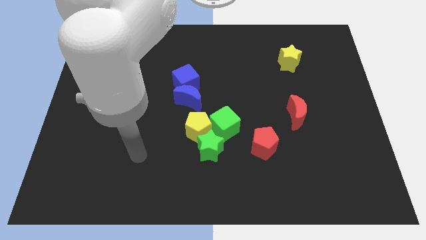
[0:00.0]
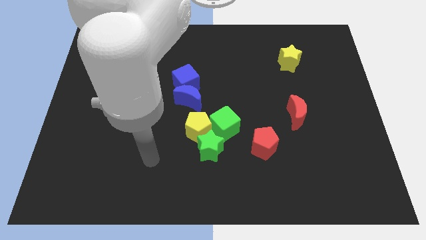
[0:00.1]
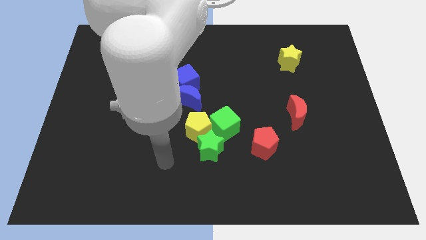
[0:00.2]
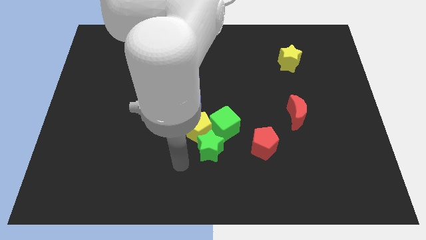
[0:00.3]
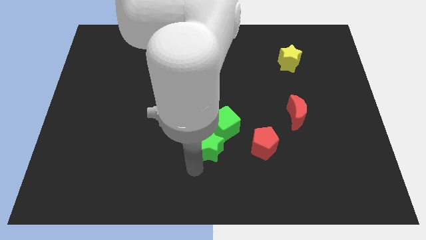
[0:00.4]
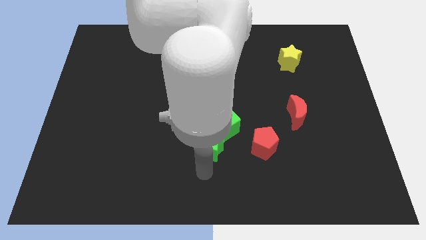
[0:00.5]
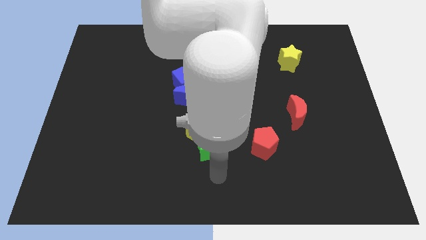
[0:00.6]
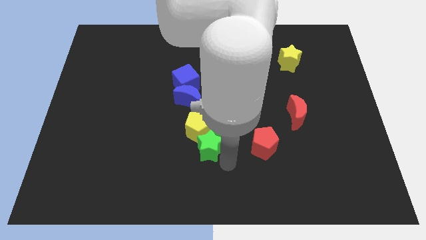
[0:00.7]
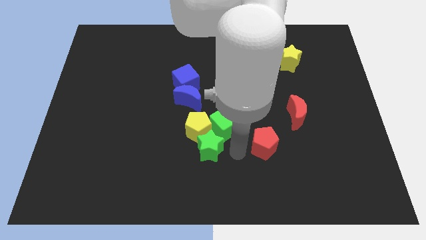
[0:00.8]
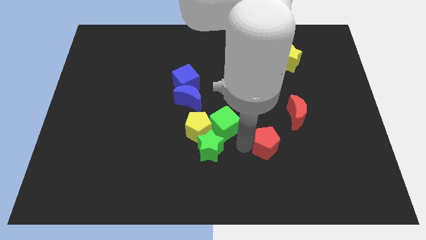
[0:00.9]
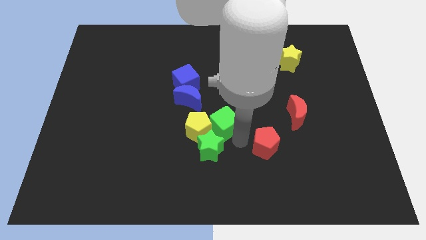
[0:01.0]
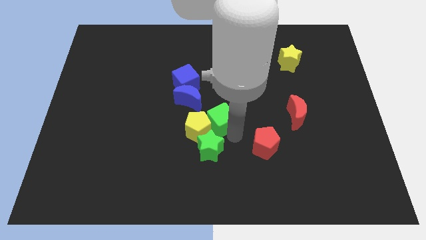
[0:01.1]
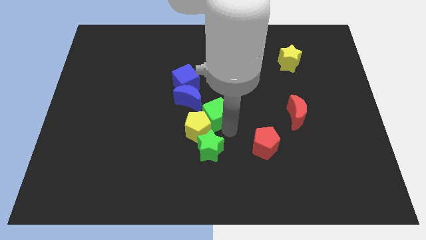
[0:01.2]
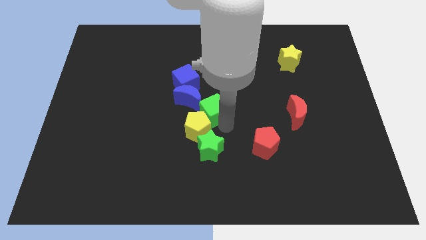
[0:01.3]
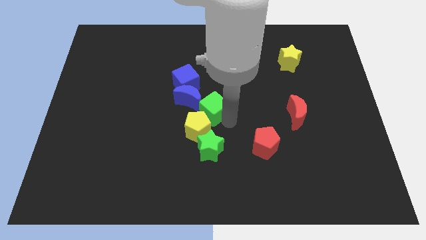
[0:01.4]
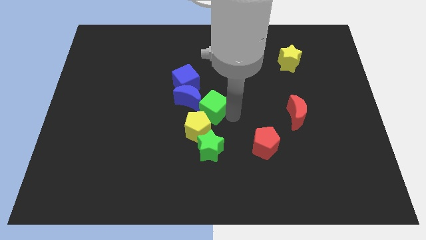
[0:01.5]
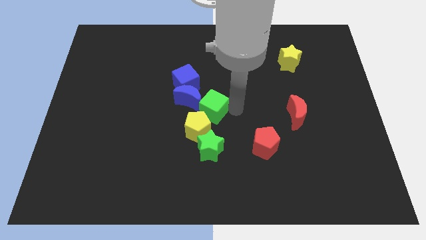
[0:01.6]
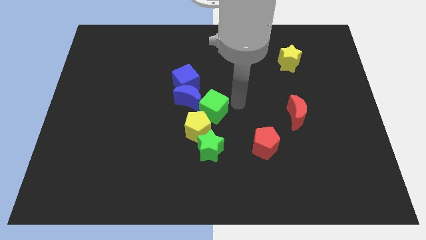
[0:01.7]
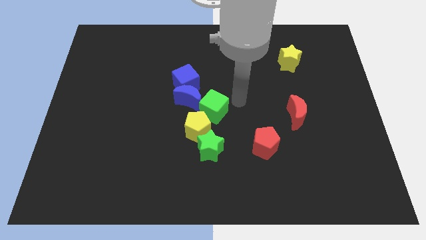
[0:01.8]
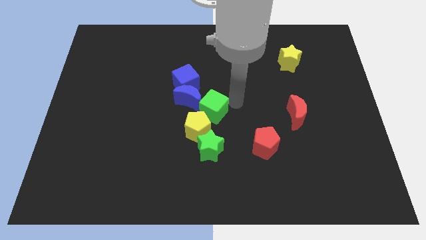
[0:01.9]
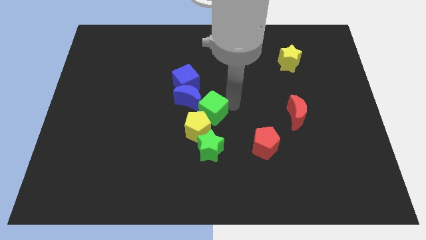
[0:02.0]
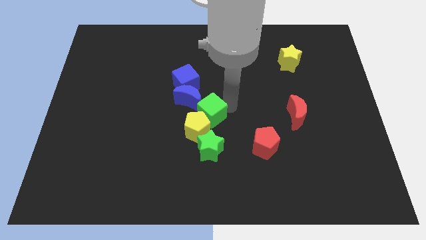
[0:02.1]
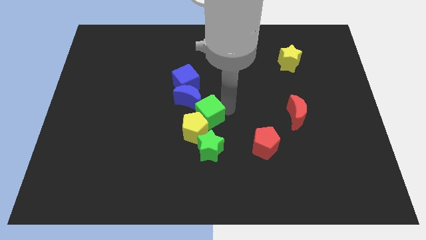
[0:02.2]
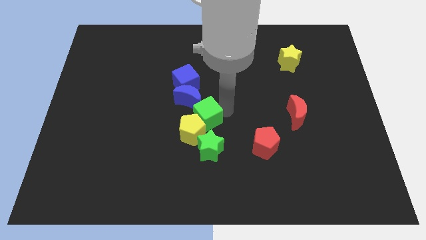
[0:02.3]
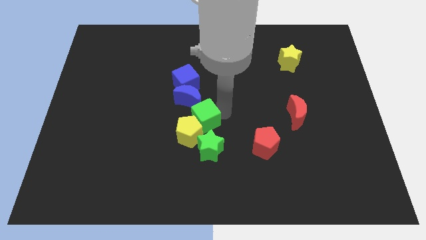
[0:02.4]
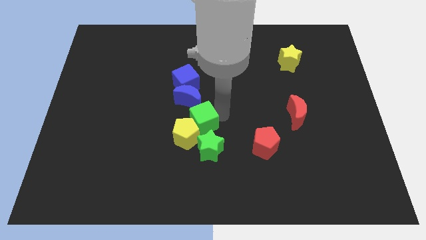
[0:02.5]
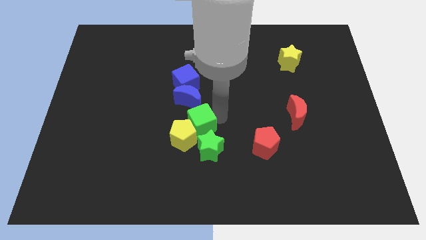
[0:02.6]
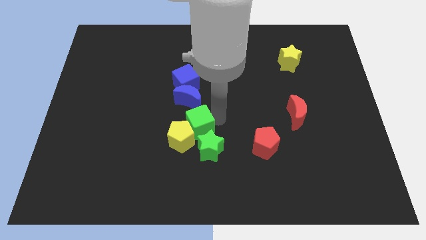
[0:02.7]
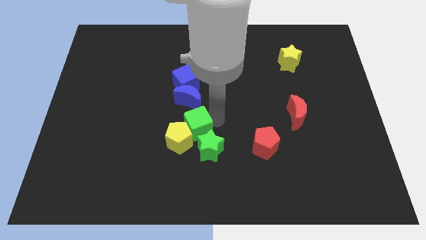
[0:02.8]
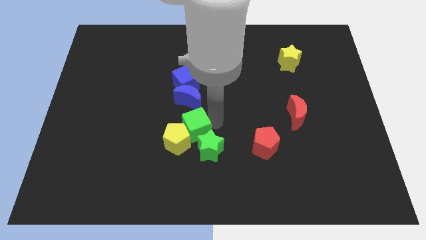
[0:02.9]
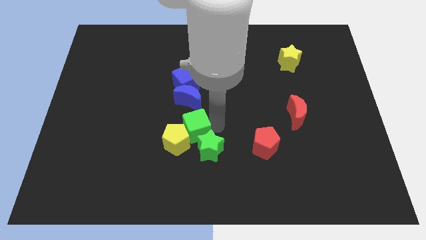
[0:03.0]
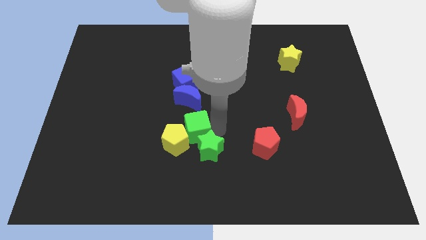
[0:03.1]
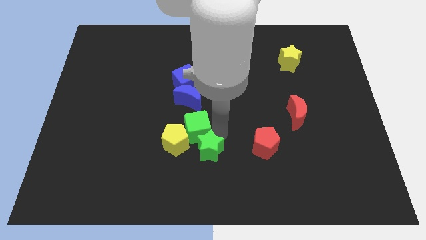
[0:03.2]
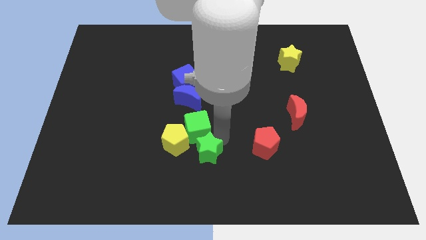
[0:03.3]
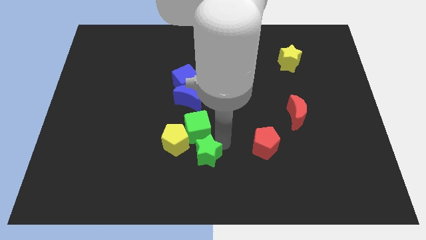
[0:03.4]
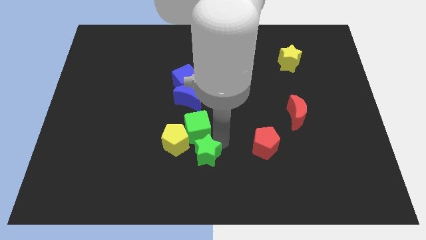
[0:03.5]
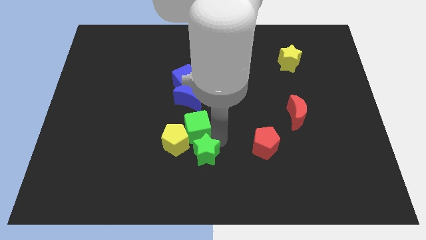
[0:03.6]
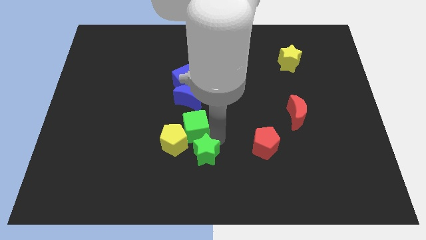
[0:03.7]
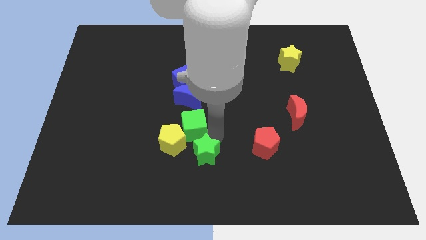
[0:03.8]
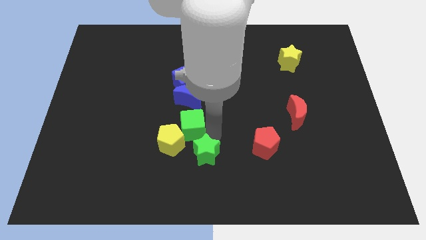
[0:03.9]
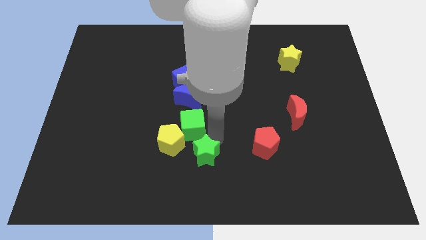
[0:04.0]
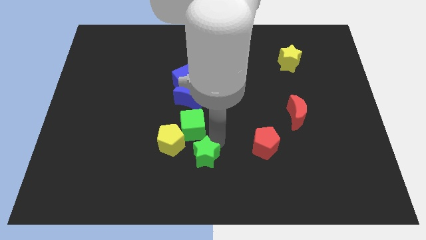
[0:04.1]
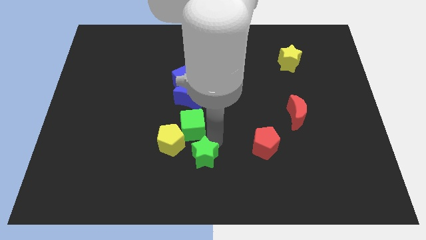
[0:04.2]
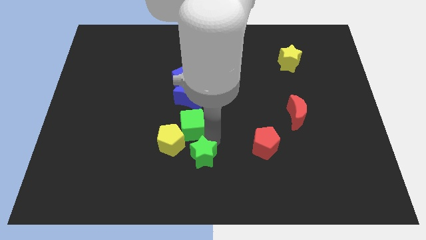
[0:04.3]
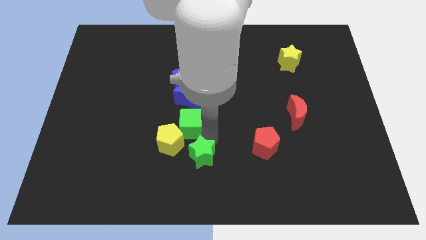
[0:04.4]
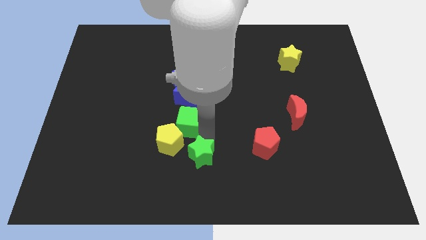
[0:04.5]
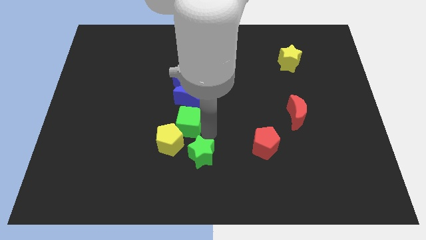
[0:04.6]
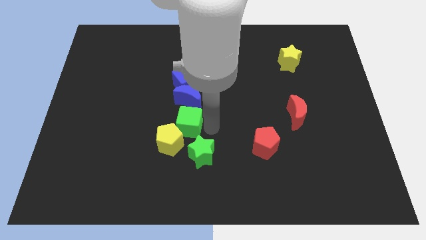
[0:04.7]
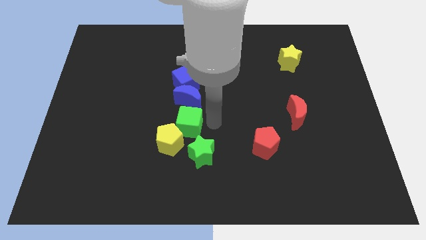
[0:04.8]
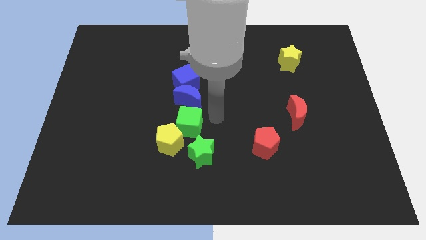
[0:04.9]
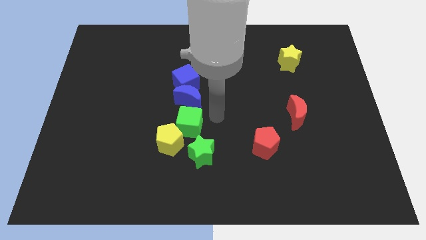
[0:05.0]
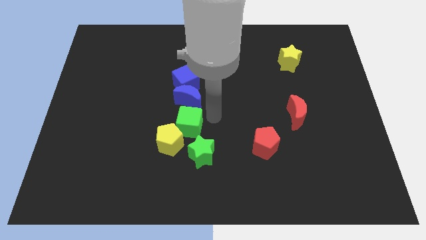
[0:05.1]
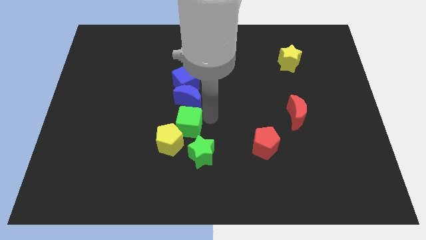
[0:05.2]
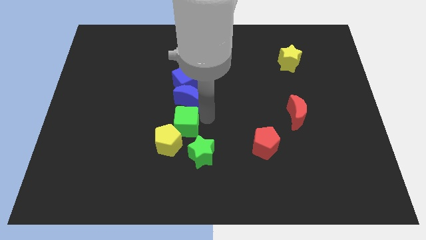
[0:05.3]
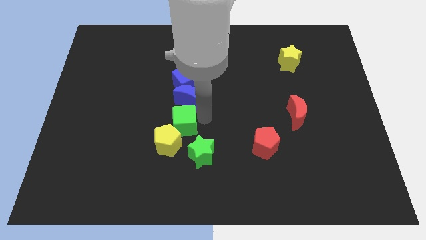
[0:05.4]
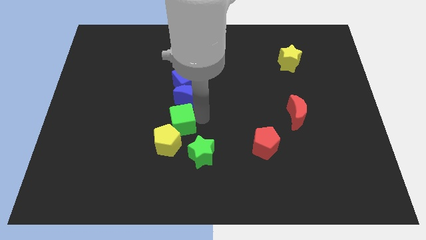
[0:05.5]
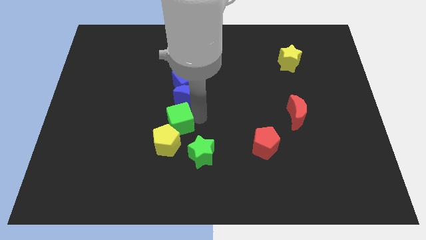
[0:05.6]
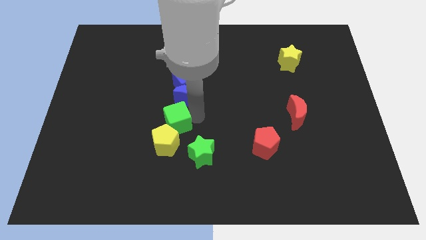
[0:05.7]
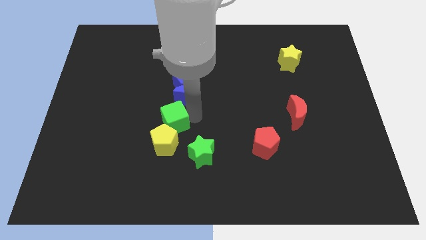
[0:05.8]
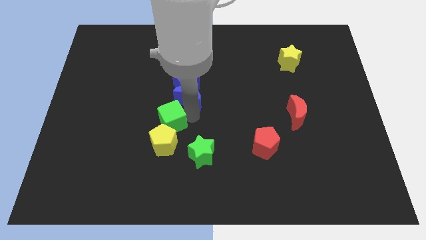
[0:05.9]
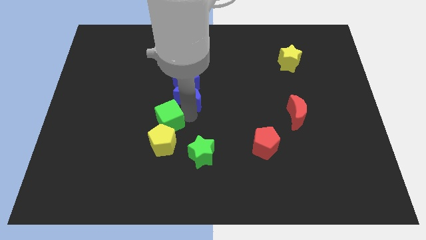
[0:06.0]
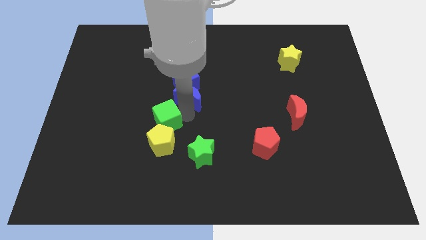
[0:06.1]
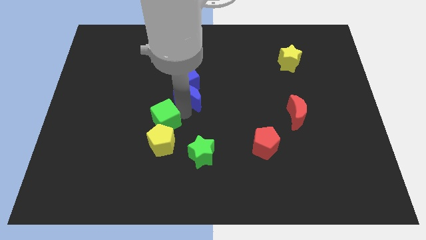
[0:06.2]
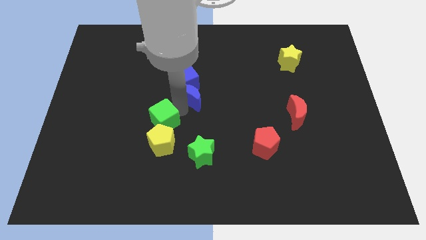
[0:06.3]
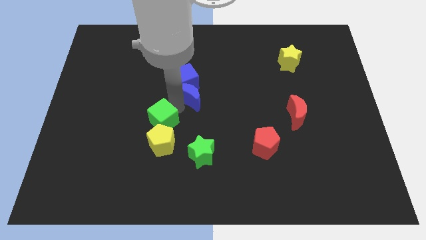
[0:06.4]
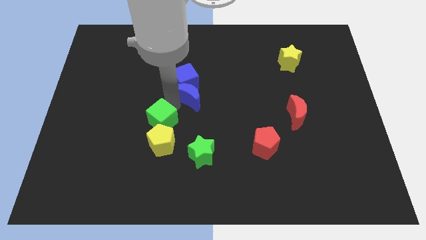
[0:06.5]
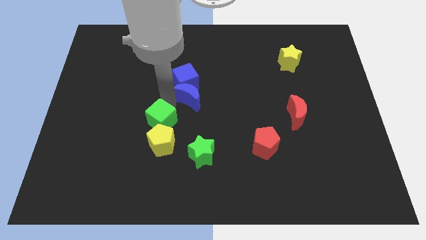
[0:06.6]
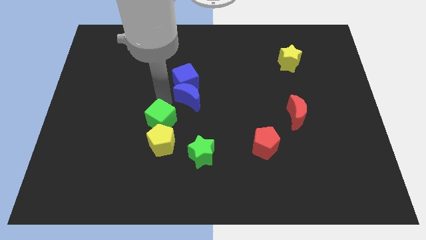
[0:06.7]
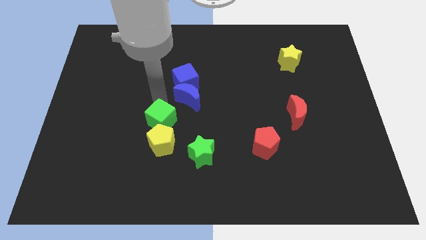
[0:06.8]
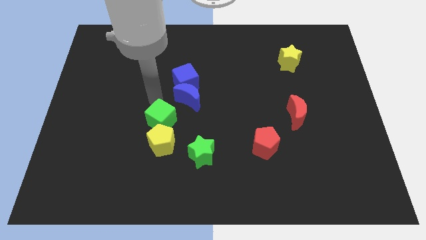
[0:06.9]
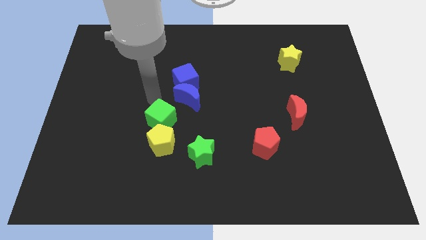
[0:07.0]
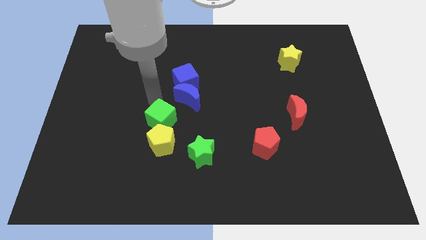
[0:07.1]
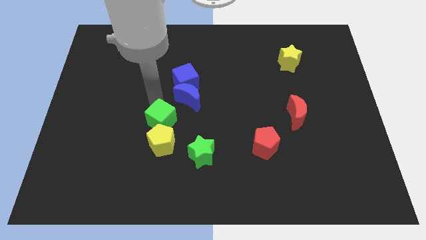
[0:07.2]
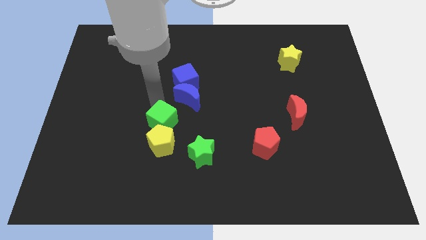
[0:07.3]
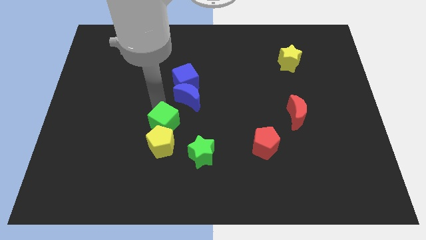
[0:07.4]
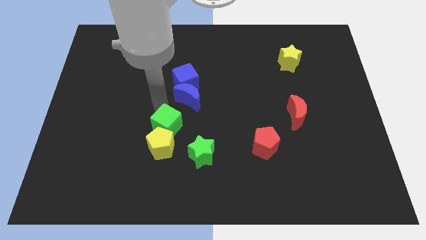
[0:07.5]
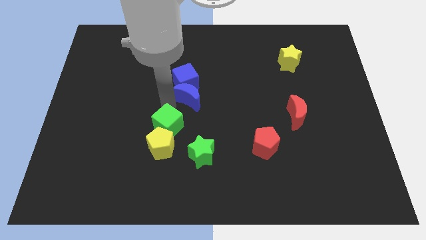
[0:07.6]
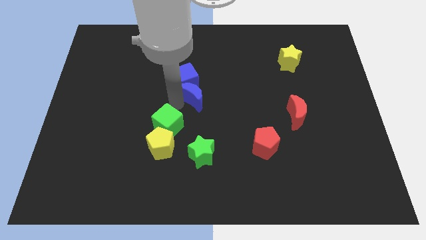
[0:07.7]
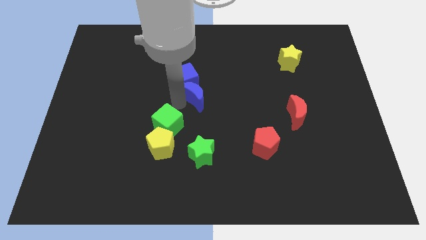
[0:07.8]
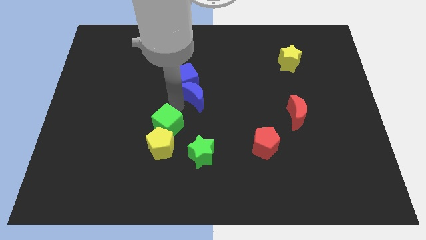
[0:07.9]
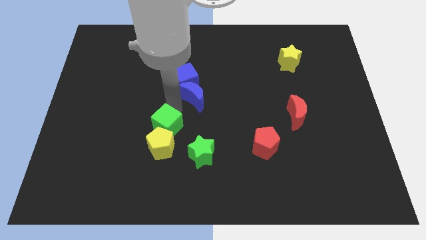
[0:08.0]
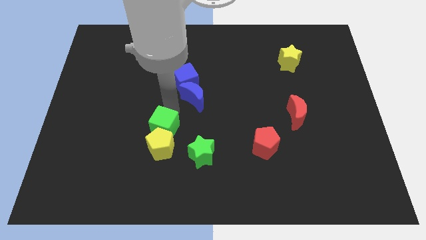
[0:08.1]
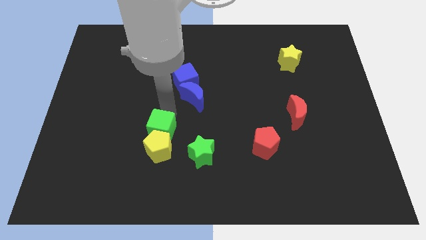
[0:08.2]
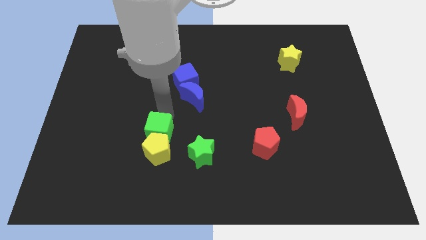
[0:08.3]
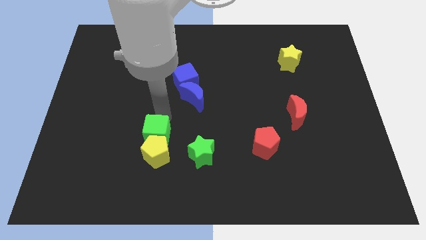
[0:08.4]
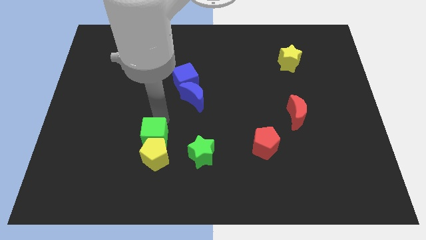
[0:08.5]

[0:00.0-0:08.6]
slide the green cube just left of the green star
